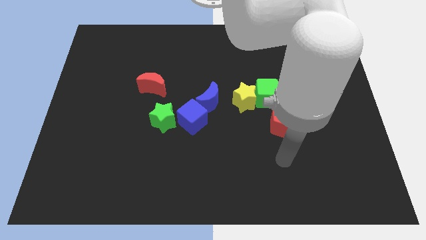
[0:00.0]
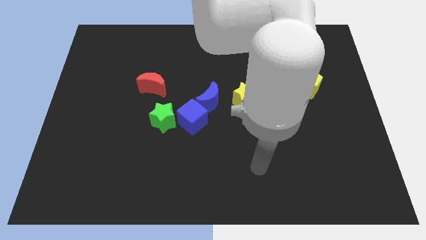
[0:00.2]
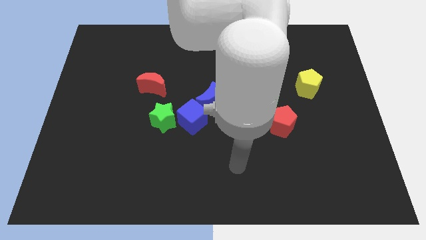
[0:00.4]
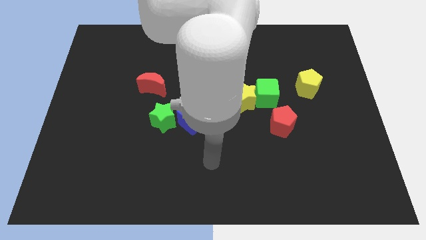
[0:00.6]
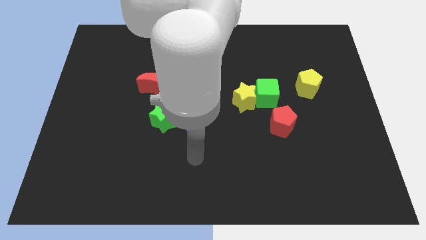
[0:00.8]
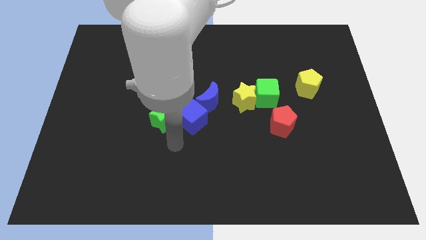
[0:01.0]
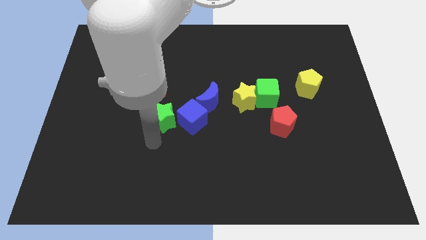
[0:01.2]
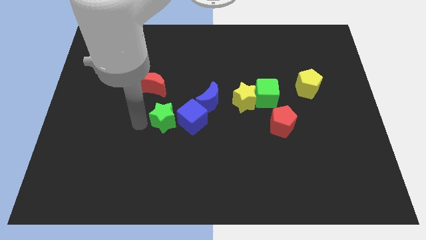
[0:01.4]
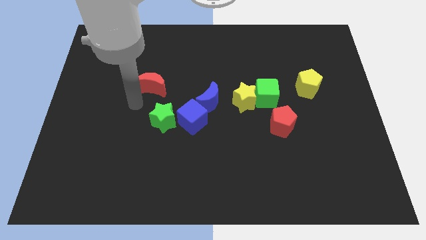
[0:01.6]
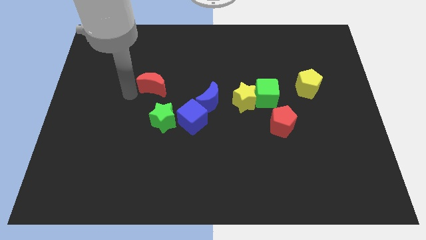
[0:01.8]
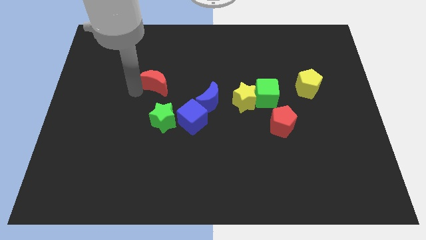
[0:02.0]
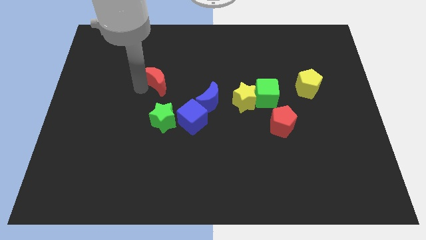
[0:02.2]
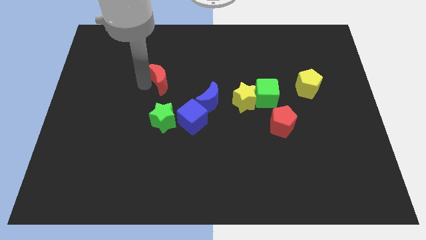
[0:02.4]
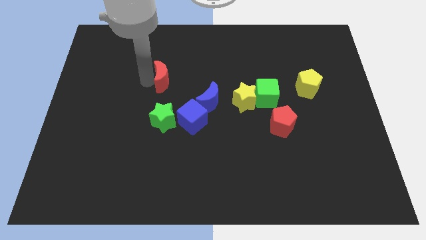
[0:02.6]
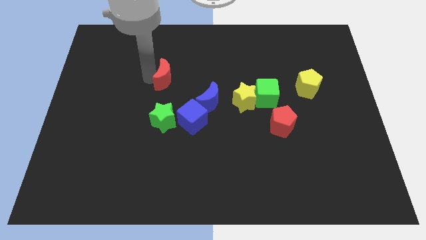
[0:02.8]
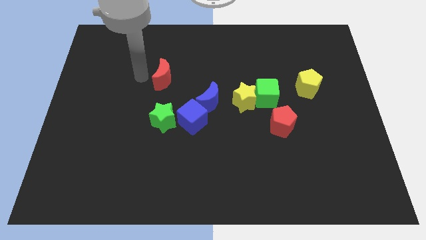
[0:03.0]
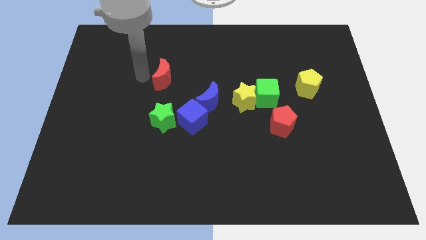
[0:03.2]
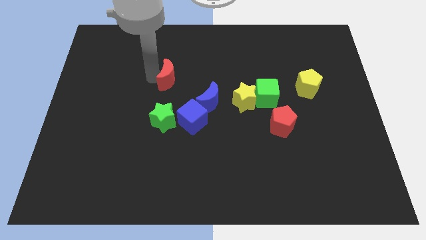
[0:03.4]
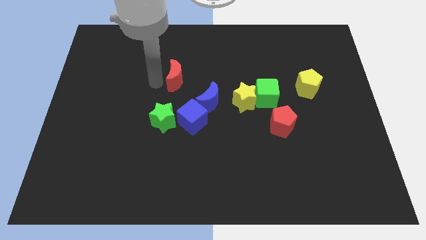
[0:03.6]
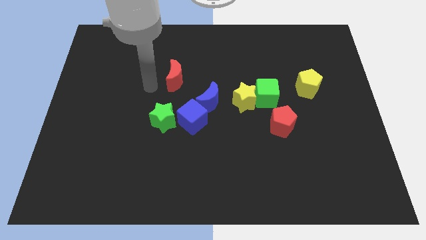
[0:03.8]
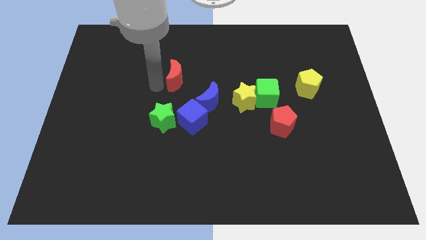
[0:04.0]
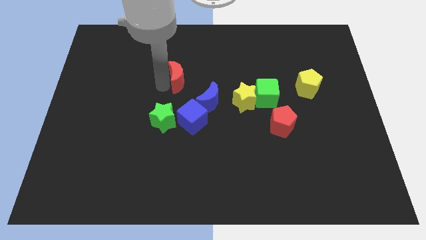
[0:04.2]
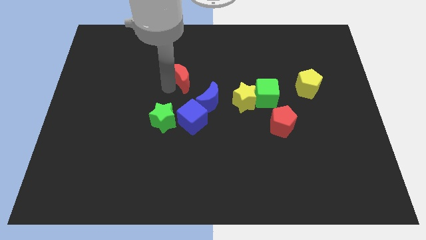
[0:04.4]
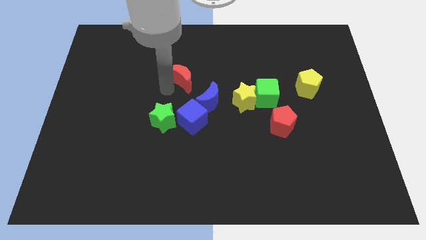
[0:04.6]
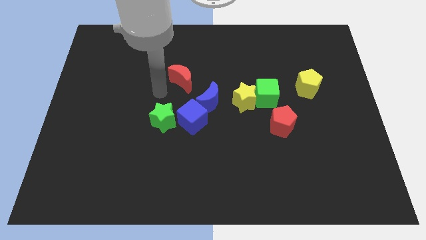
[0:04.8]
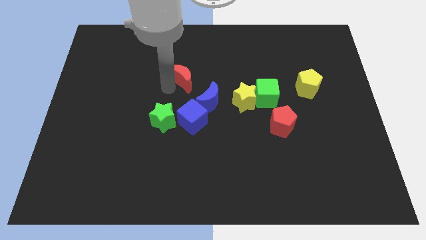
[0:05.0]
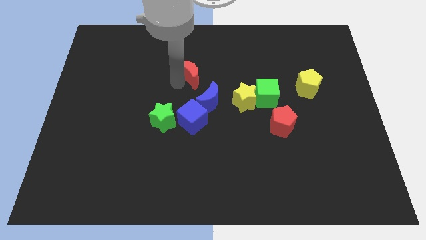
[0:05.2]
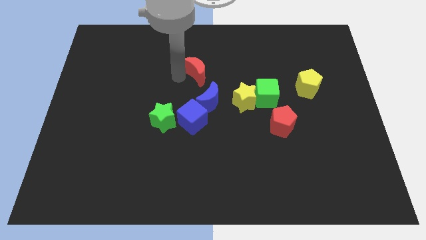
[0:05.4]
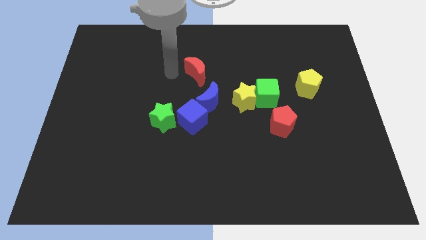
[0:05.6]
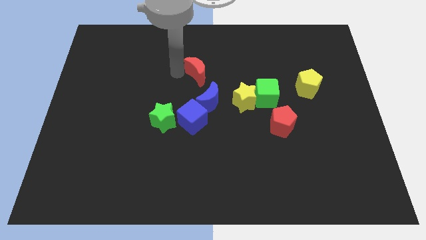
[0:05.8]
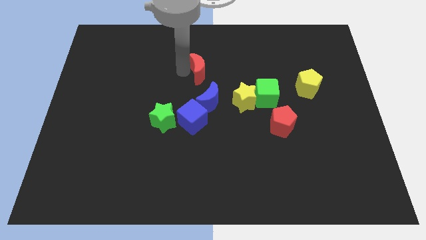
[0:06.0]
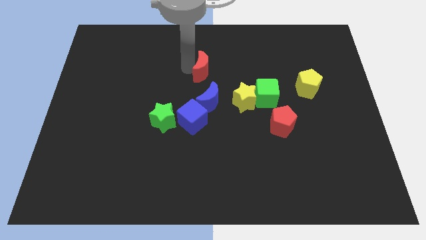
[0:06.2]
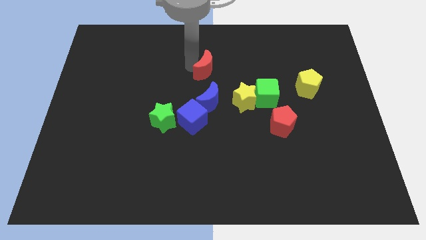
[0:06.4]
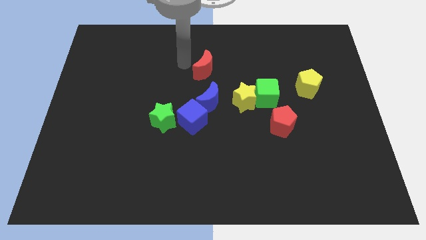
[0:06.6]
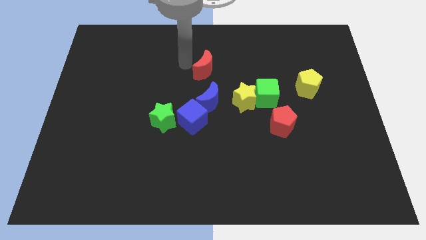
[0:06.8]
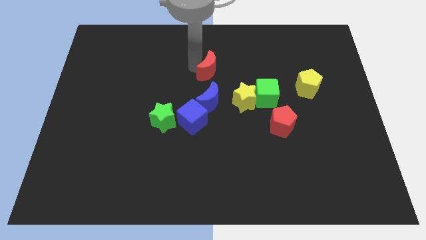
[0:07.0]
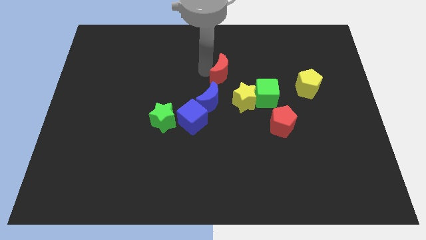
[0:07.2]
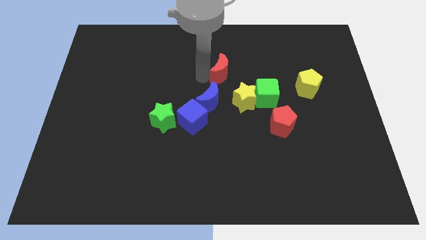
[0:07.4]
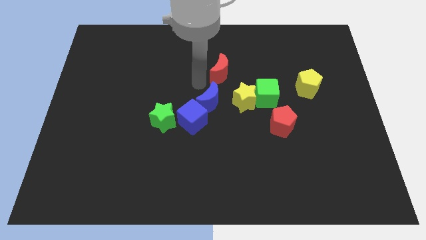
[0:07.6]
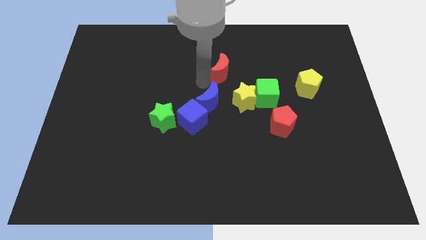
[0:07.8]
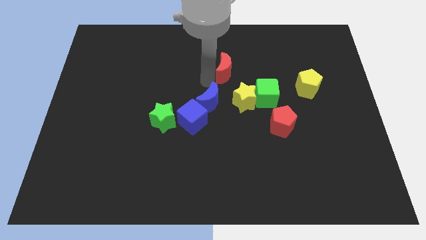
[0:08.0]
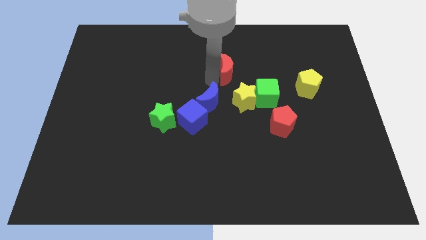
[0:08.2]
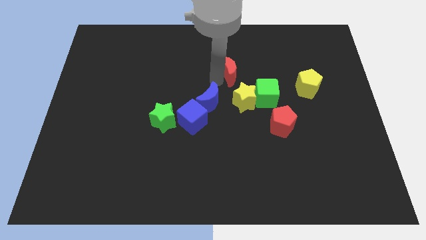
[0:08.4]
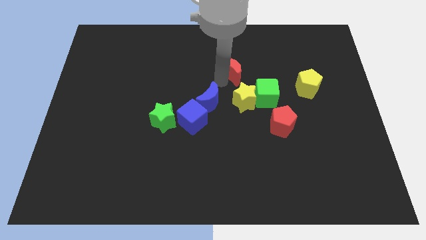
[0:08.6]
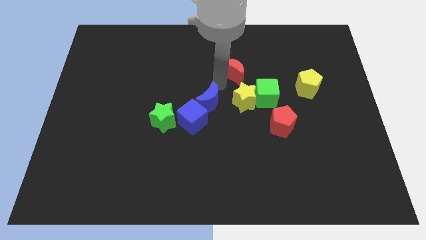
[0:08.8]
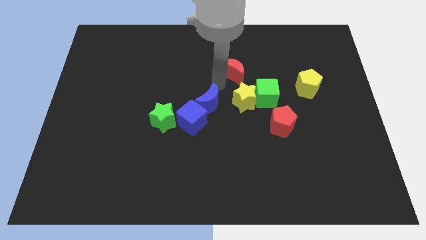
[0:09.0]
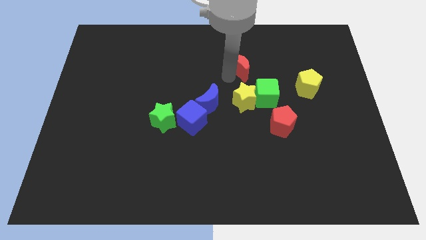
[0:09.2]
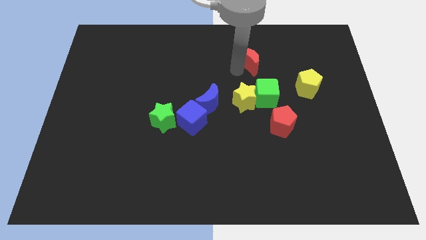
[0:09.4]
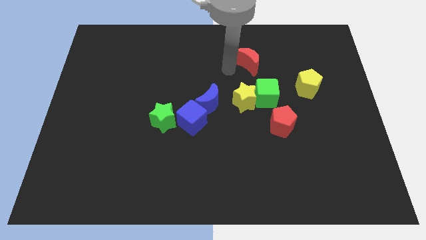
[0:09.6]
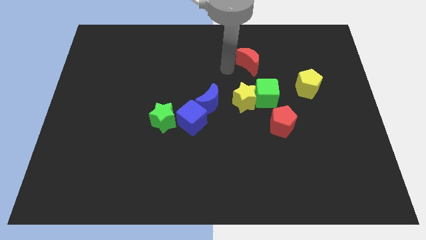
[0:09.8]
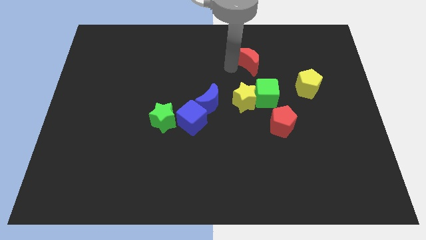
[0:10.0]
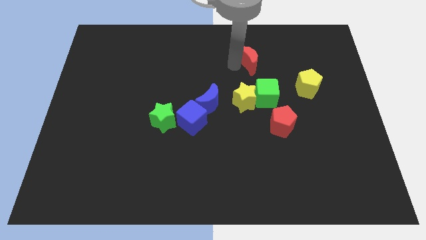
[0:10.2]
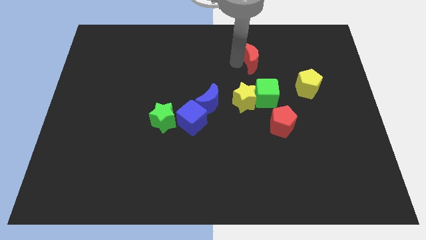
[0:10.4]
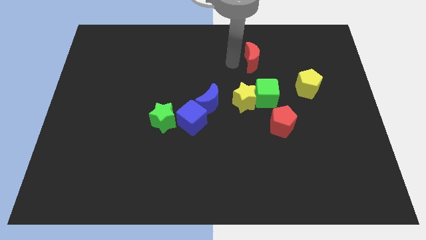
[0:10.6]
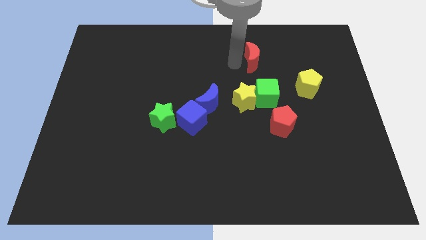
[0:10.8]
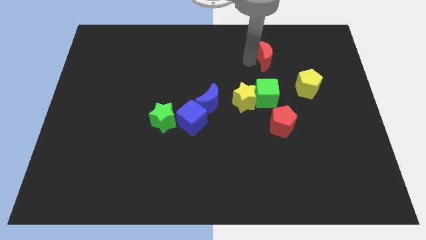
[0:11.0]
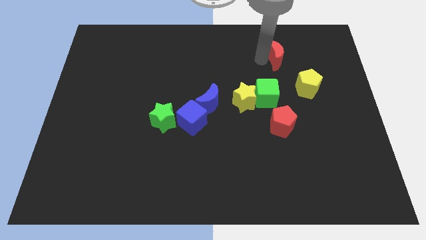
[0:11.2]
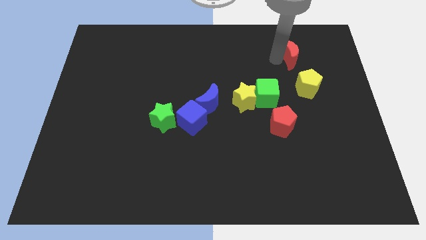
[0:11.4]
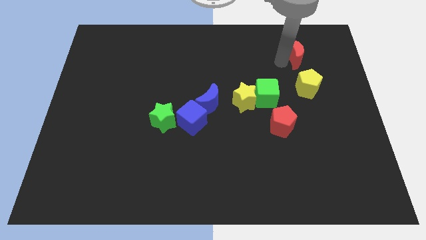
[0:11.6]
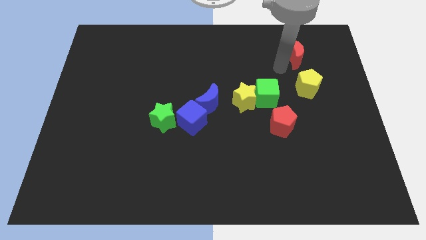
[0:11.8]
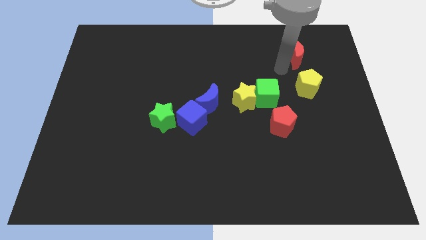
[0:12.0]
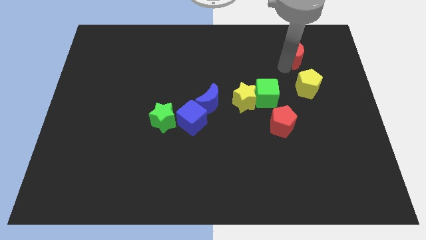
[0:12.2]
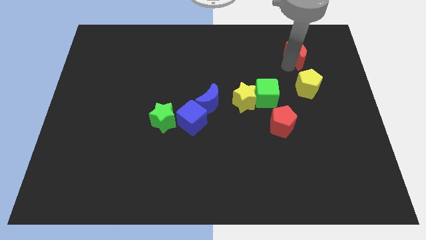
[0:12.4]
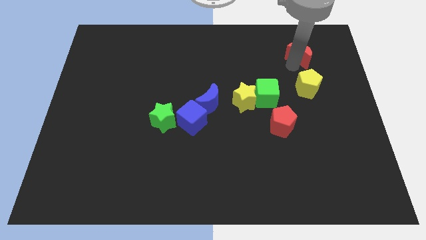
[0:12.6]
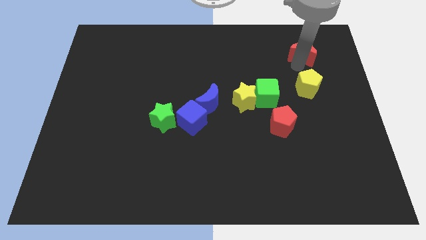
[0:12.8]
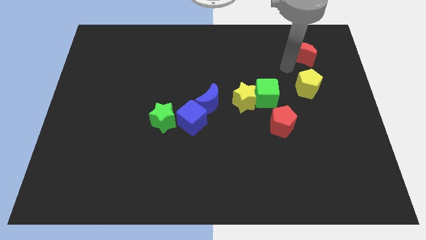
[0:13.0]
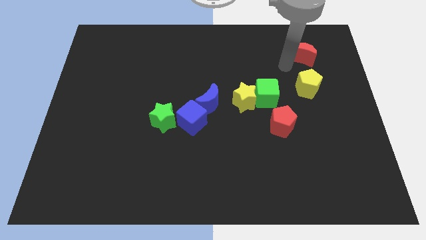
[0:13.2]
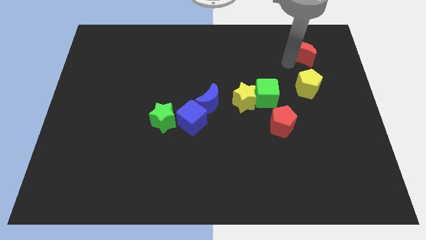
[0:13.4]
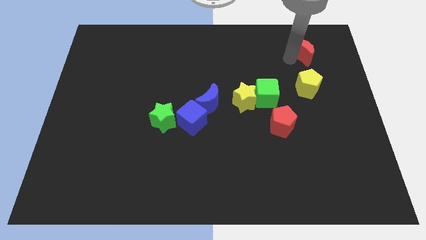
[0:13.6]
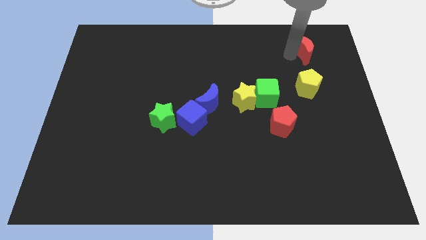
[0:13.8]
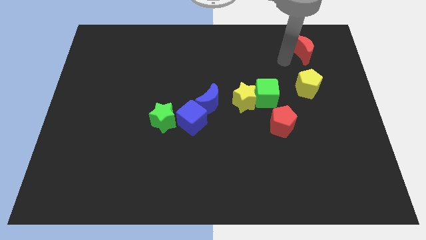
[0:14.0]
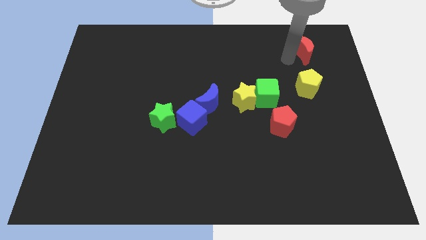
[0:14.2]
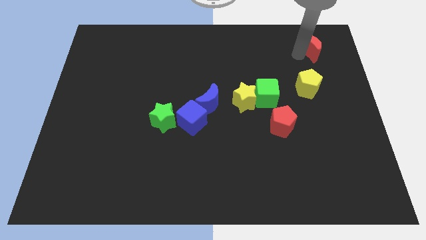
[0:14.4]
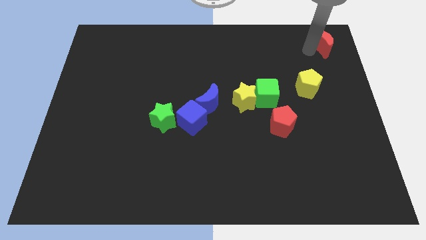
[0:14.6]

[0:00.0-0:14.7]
put the red moon to the top right of the board
